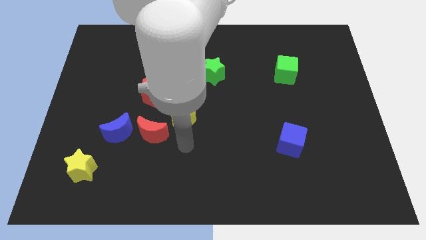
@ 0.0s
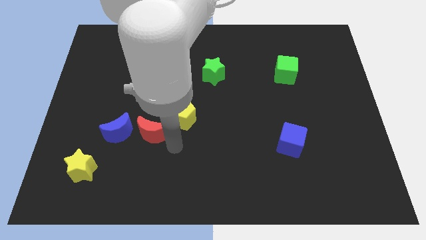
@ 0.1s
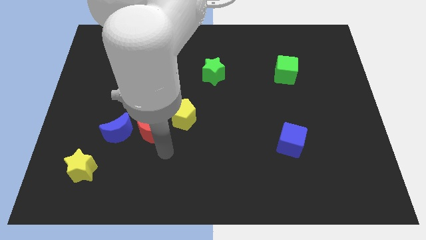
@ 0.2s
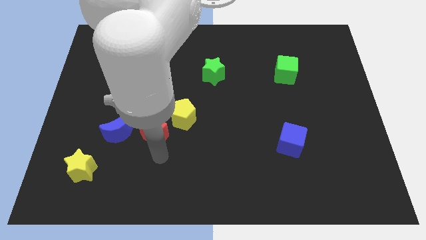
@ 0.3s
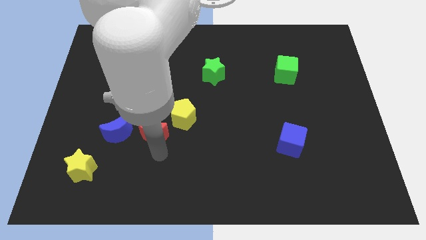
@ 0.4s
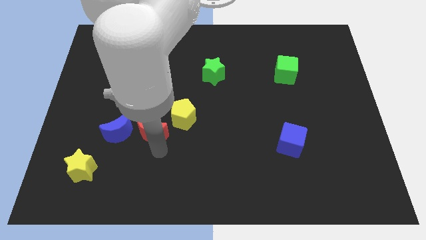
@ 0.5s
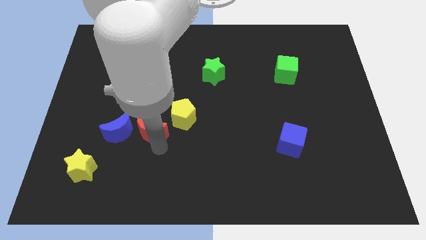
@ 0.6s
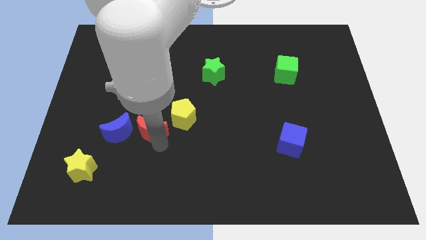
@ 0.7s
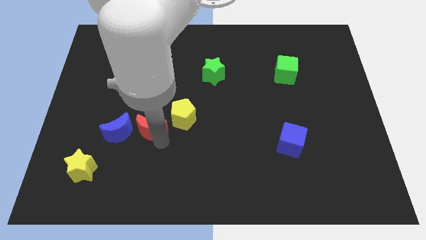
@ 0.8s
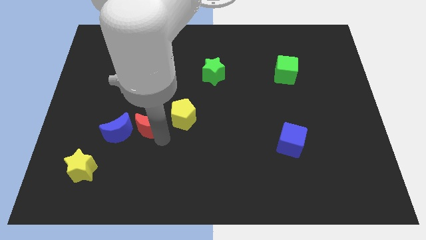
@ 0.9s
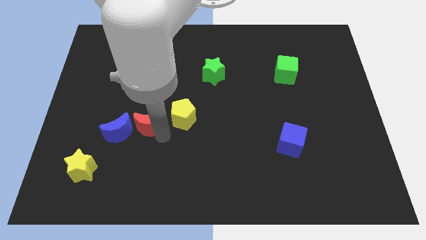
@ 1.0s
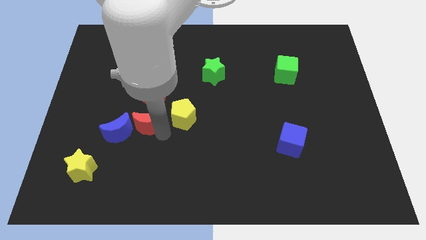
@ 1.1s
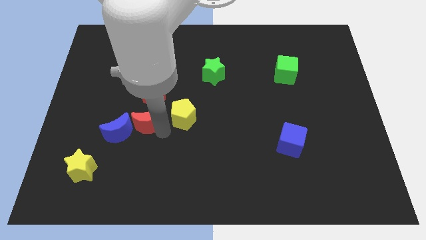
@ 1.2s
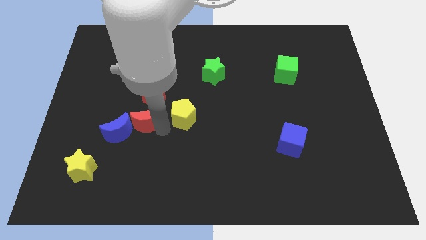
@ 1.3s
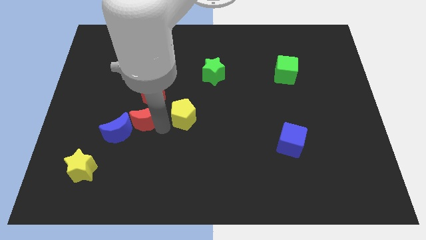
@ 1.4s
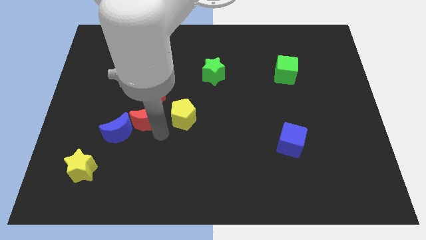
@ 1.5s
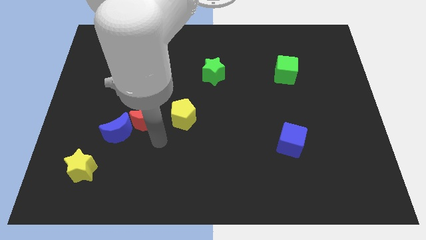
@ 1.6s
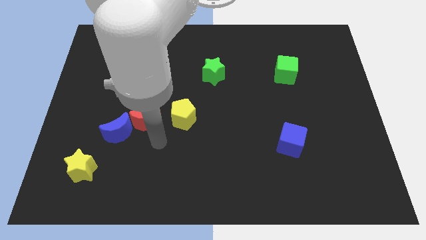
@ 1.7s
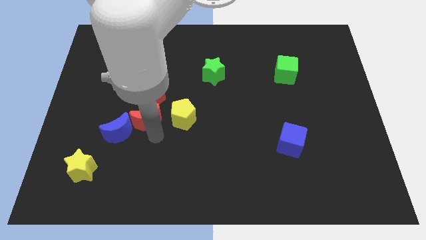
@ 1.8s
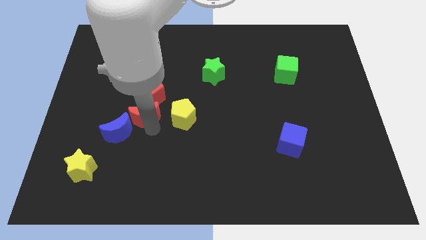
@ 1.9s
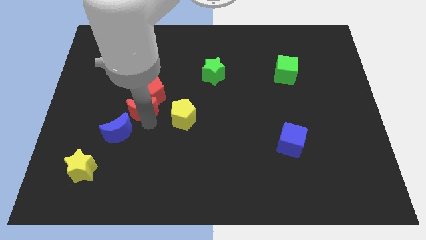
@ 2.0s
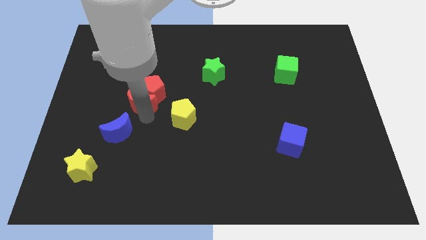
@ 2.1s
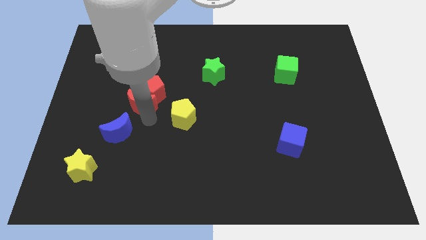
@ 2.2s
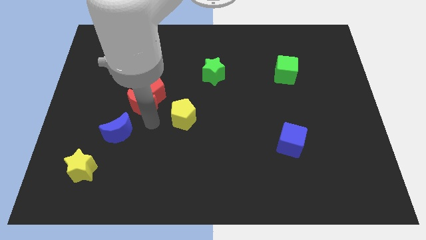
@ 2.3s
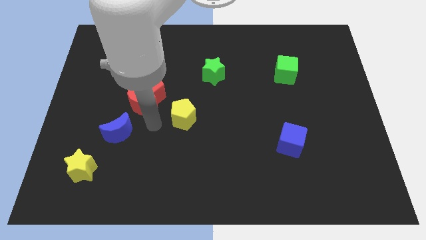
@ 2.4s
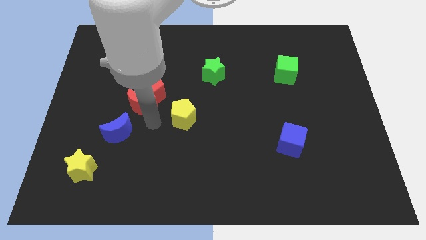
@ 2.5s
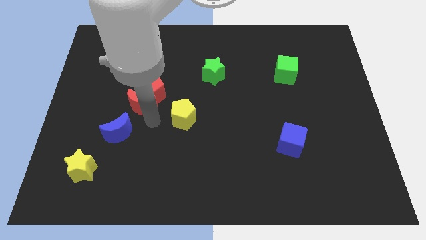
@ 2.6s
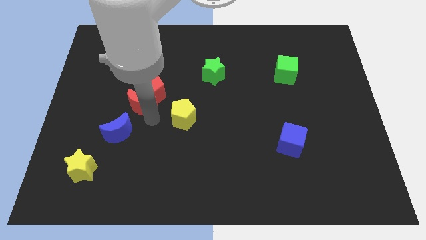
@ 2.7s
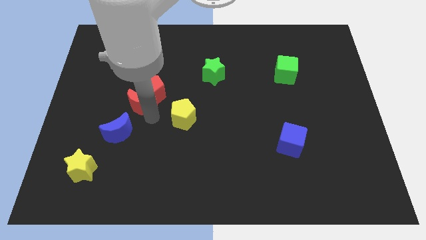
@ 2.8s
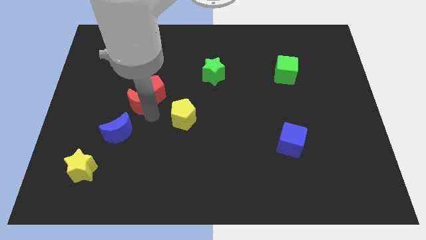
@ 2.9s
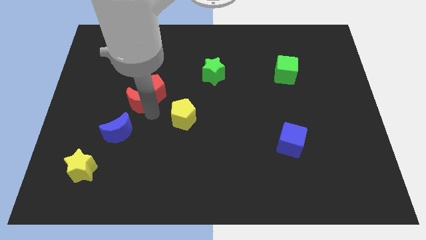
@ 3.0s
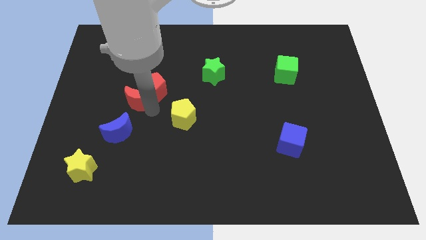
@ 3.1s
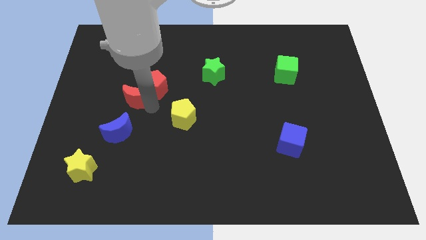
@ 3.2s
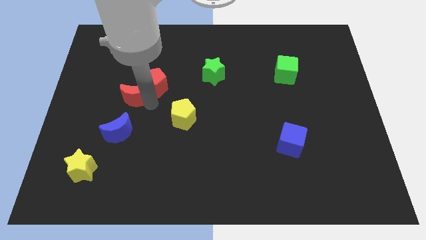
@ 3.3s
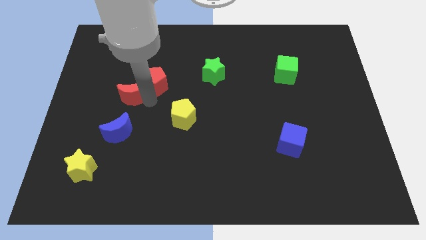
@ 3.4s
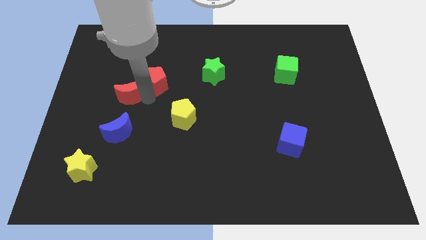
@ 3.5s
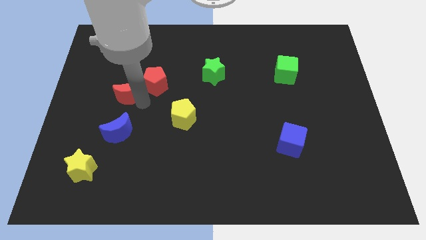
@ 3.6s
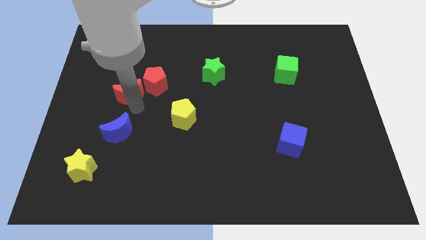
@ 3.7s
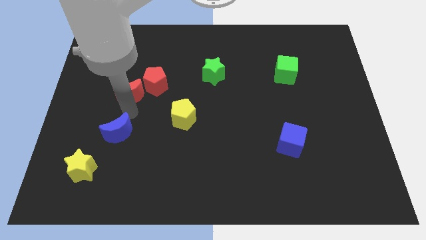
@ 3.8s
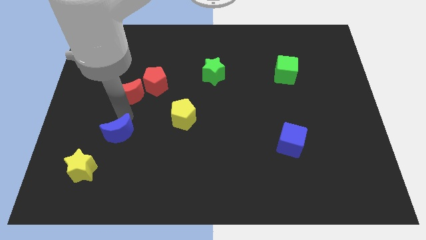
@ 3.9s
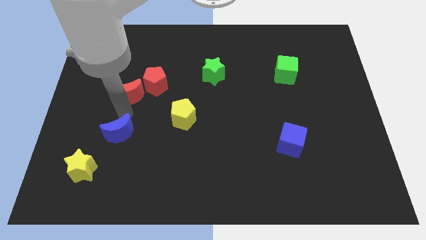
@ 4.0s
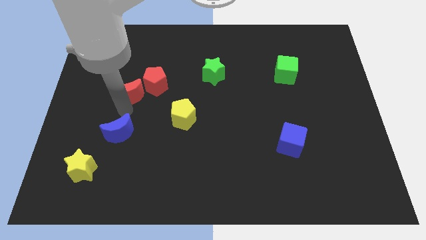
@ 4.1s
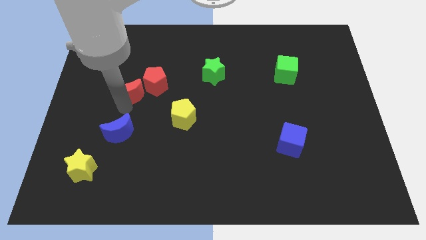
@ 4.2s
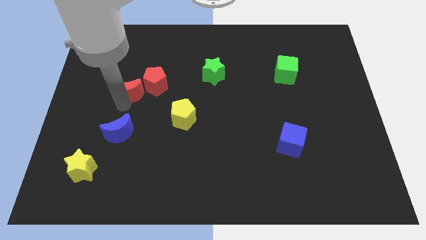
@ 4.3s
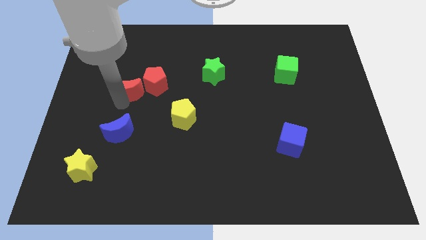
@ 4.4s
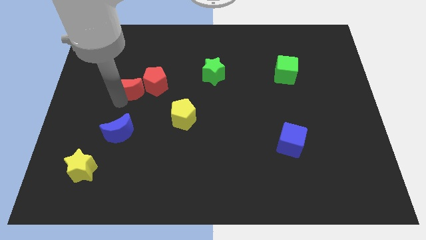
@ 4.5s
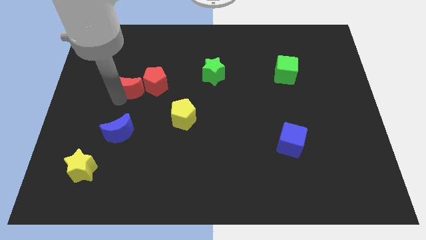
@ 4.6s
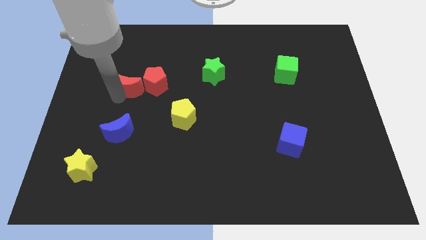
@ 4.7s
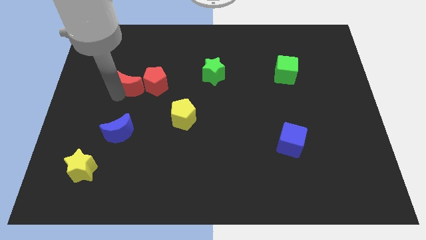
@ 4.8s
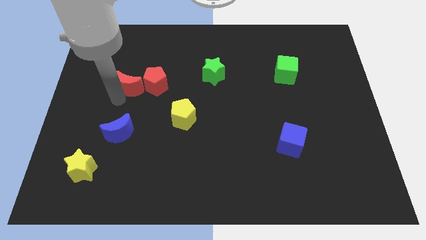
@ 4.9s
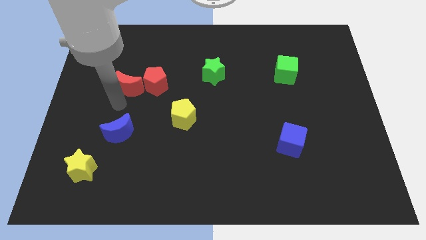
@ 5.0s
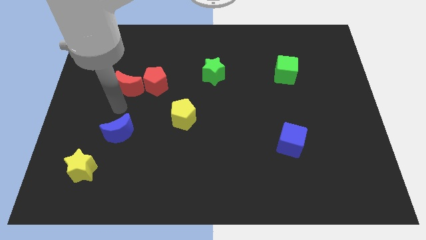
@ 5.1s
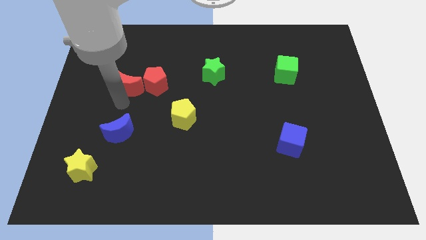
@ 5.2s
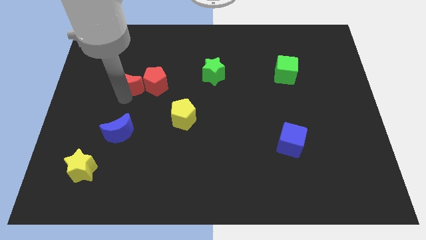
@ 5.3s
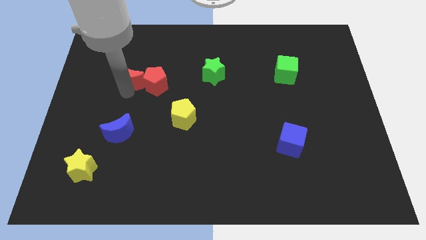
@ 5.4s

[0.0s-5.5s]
put the red moon to the top left of the red pentagon

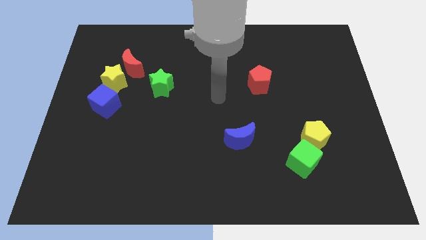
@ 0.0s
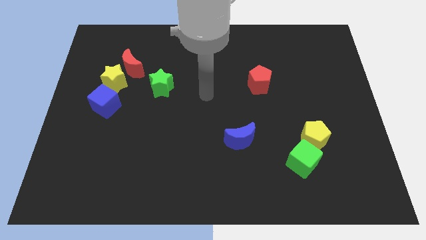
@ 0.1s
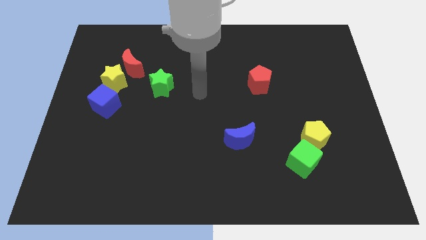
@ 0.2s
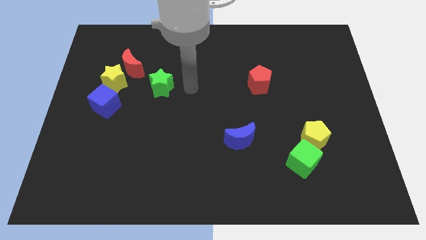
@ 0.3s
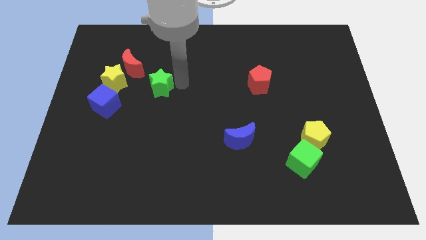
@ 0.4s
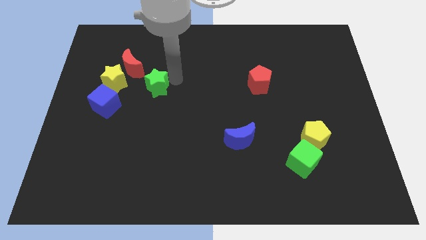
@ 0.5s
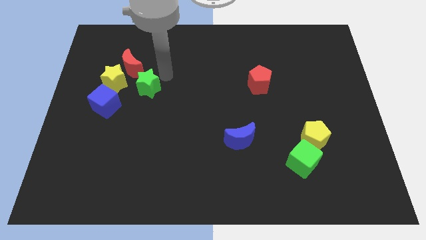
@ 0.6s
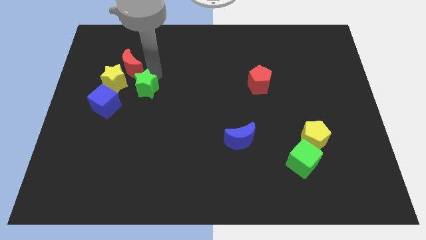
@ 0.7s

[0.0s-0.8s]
move the red moon to the top side of the green star
